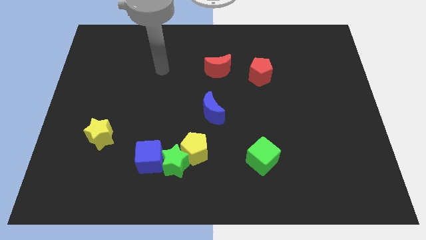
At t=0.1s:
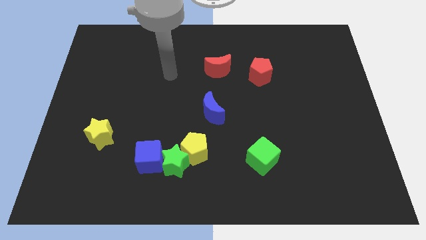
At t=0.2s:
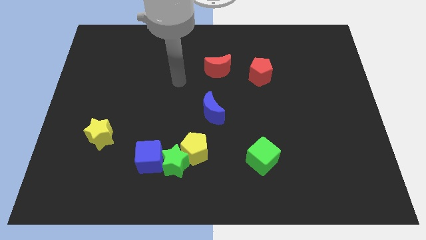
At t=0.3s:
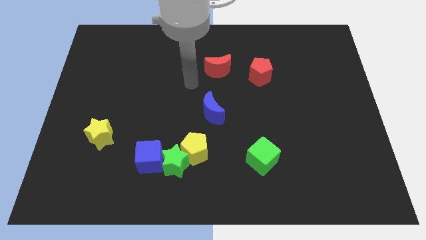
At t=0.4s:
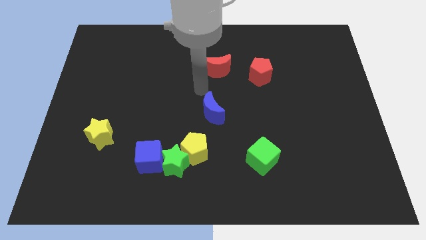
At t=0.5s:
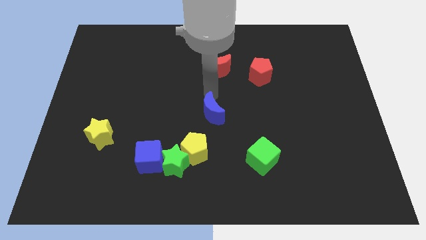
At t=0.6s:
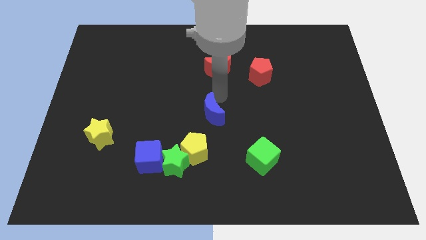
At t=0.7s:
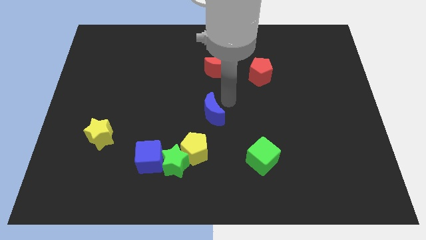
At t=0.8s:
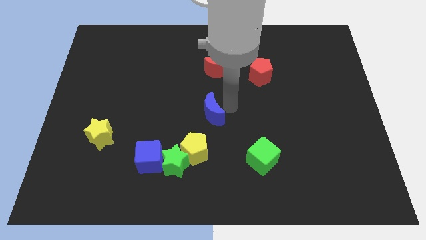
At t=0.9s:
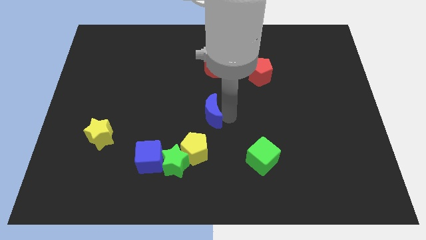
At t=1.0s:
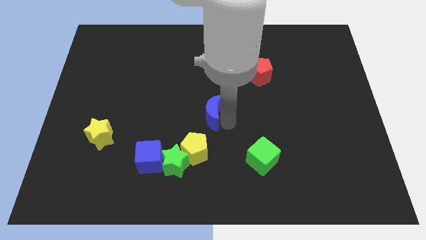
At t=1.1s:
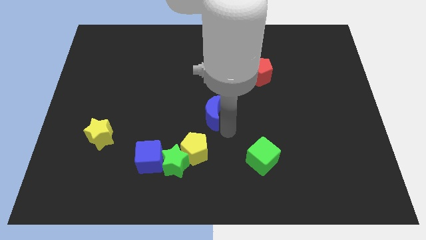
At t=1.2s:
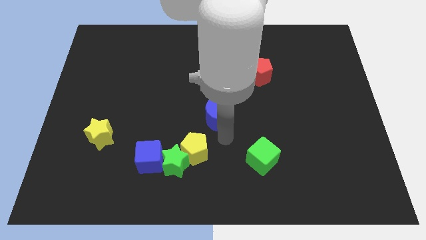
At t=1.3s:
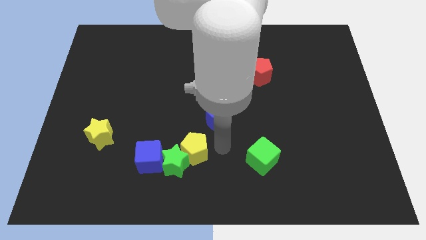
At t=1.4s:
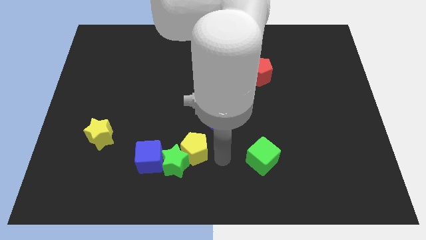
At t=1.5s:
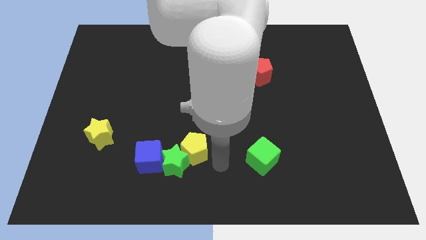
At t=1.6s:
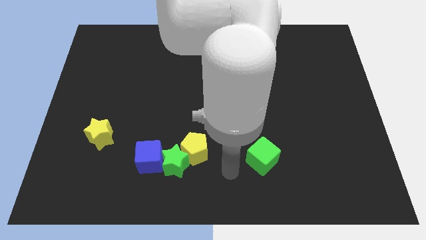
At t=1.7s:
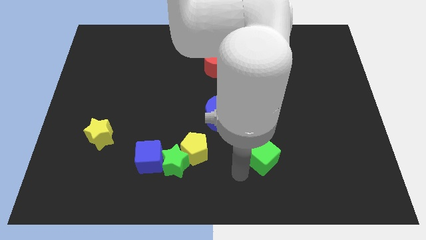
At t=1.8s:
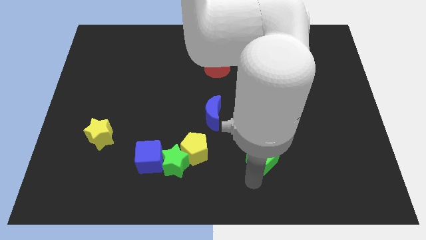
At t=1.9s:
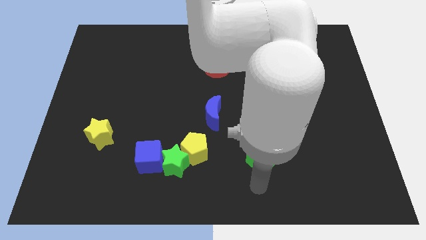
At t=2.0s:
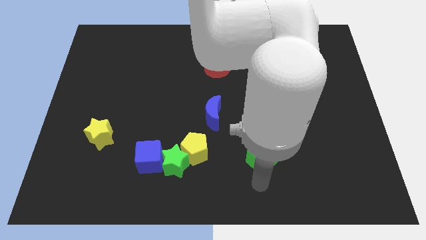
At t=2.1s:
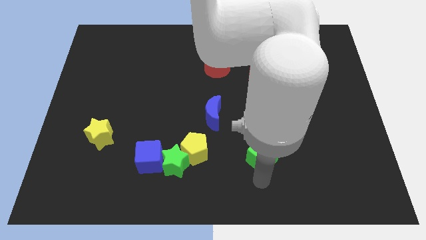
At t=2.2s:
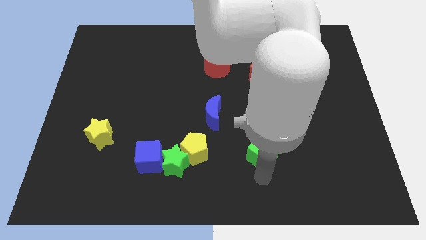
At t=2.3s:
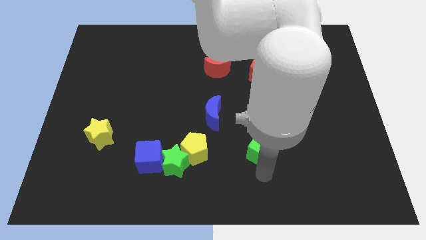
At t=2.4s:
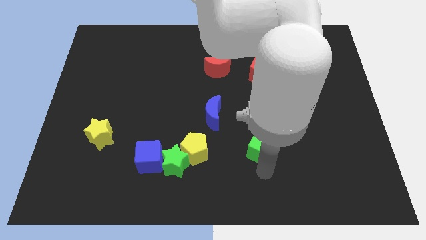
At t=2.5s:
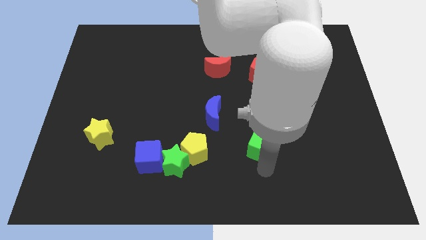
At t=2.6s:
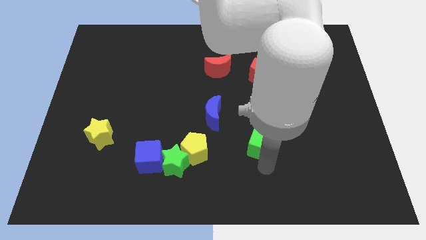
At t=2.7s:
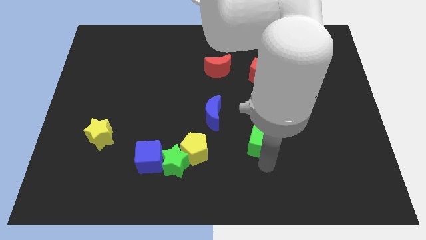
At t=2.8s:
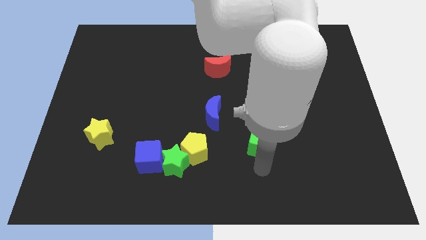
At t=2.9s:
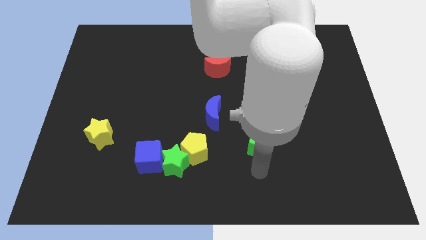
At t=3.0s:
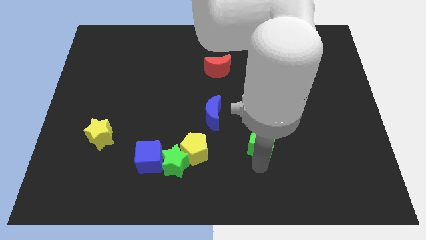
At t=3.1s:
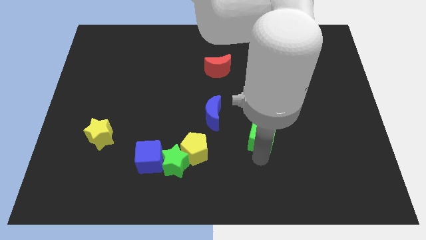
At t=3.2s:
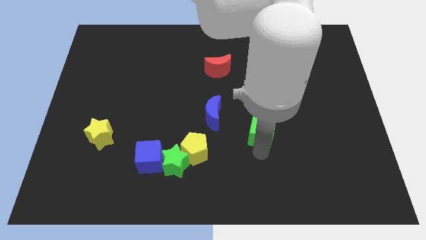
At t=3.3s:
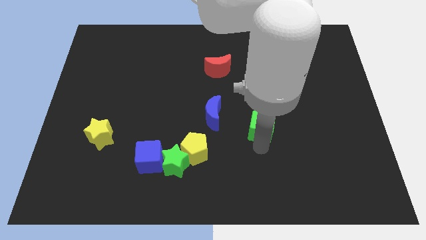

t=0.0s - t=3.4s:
push the green cube up somewhat

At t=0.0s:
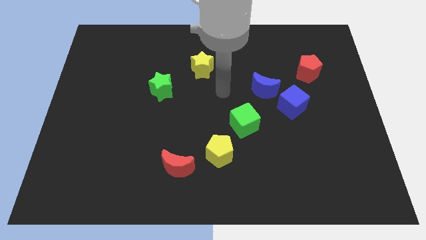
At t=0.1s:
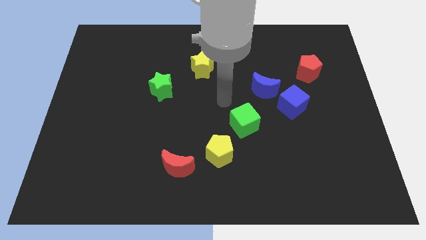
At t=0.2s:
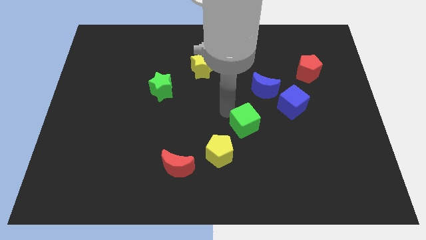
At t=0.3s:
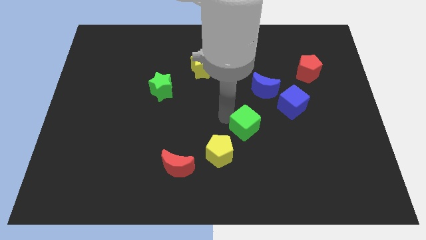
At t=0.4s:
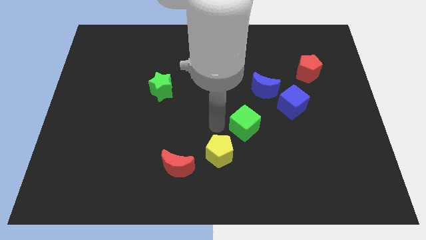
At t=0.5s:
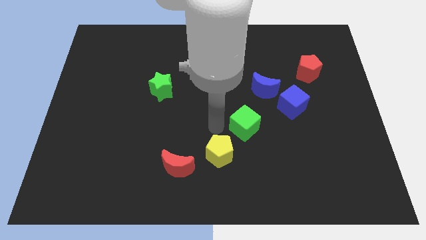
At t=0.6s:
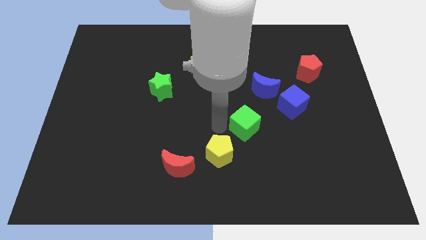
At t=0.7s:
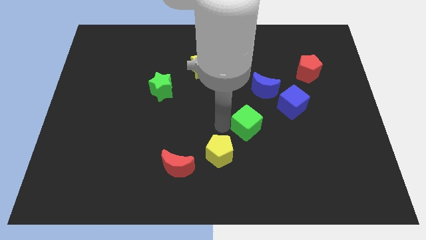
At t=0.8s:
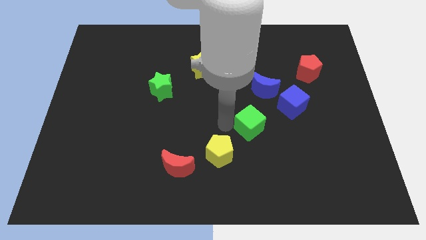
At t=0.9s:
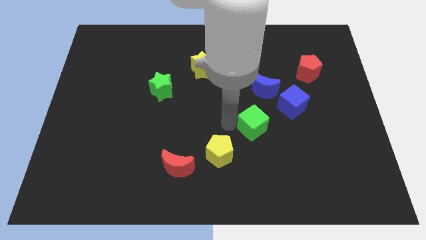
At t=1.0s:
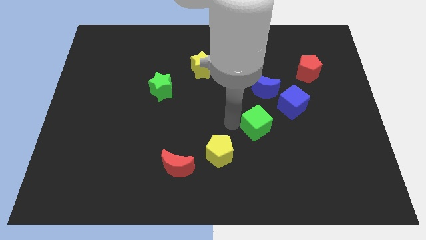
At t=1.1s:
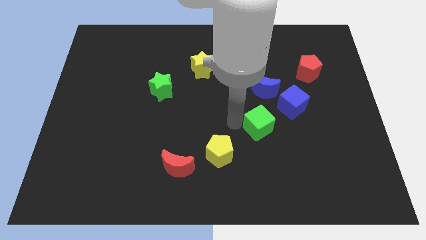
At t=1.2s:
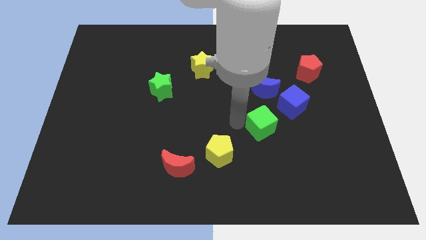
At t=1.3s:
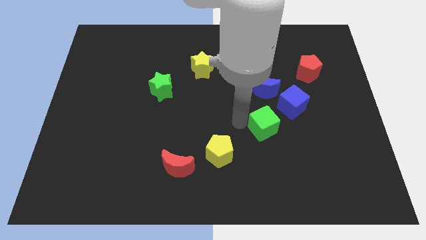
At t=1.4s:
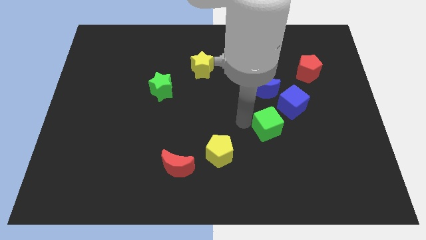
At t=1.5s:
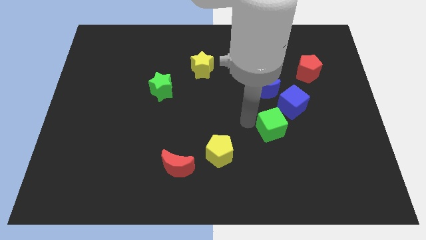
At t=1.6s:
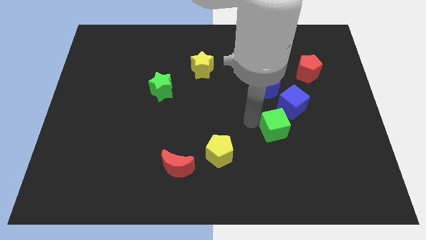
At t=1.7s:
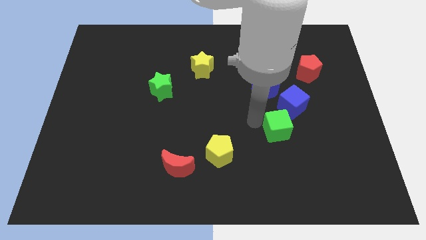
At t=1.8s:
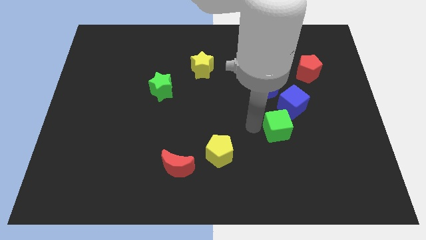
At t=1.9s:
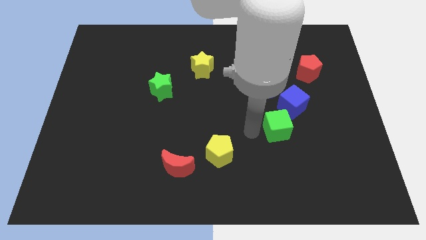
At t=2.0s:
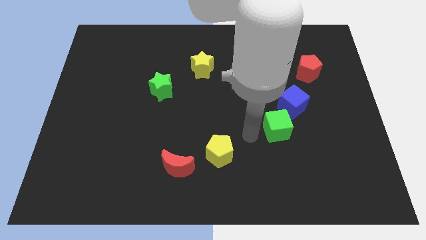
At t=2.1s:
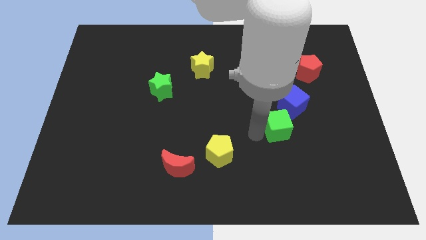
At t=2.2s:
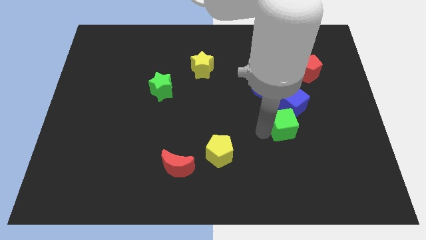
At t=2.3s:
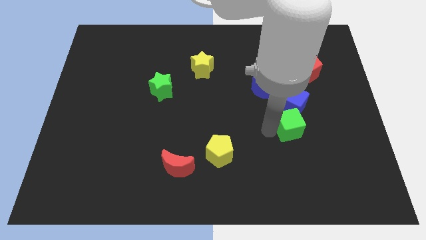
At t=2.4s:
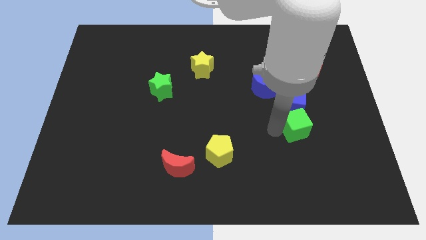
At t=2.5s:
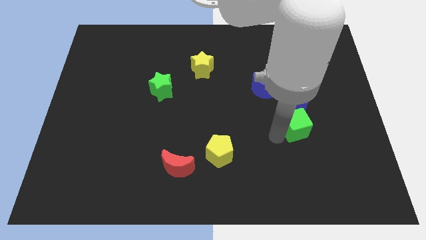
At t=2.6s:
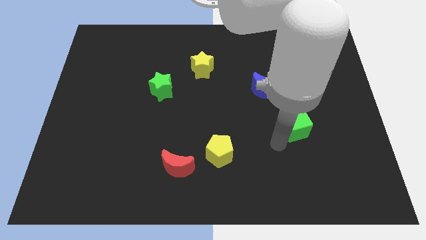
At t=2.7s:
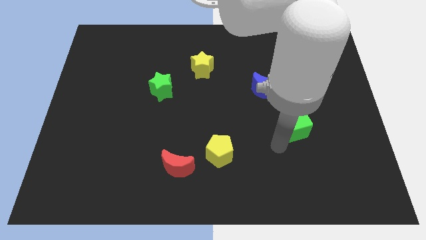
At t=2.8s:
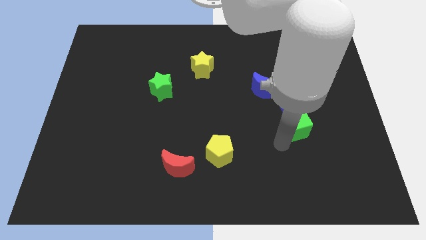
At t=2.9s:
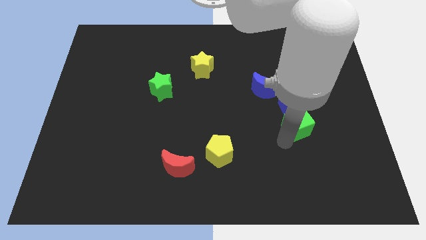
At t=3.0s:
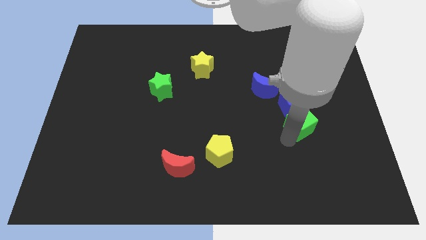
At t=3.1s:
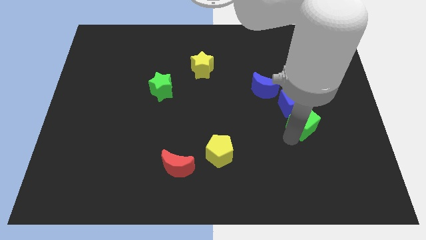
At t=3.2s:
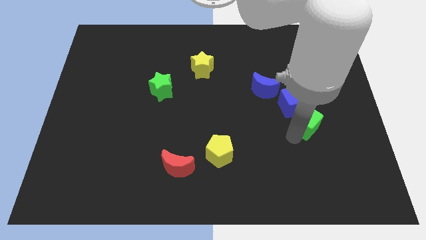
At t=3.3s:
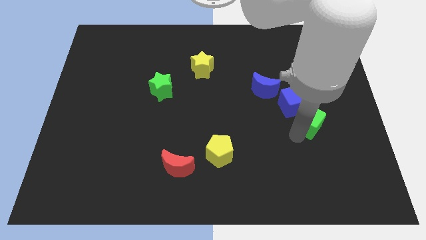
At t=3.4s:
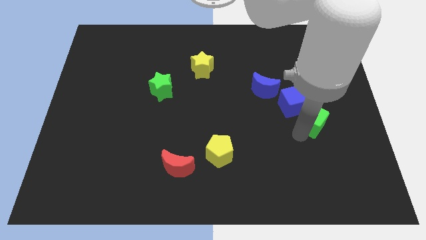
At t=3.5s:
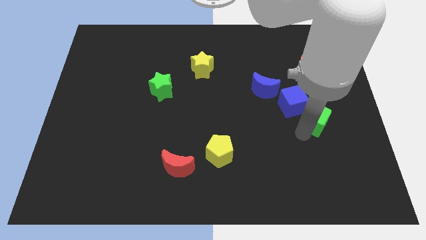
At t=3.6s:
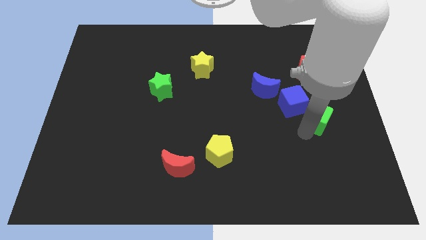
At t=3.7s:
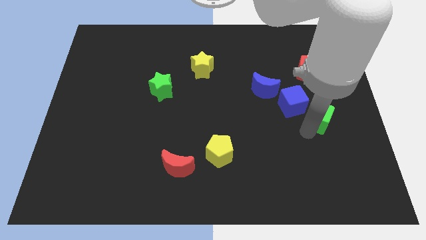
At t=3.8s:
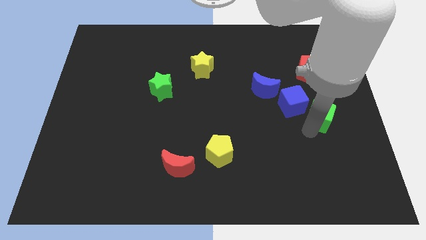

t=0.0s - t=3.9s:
move the green cube up and then right slightly

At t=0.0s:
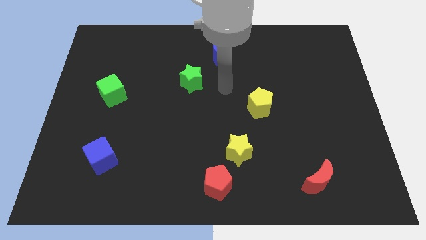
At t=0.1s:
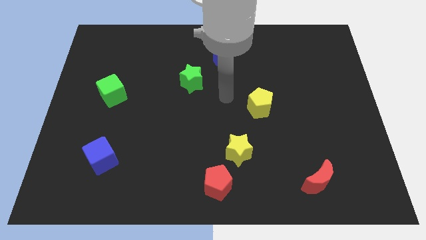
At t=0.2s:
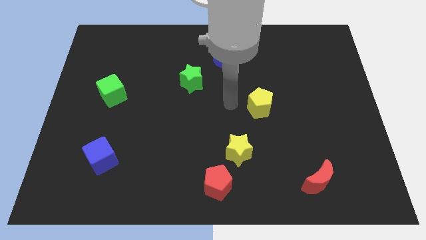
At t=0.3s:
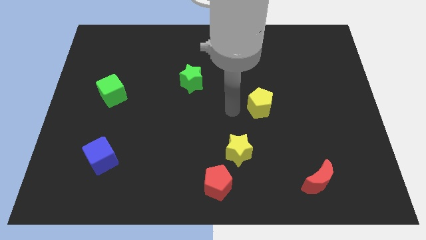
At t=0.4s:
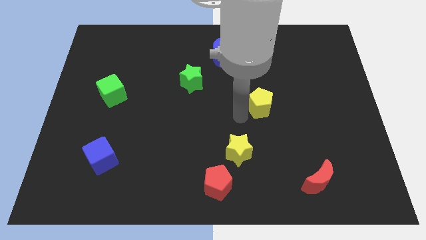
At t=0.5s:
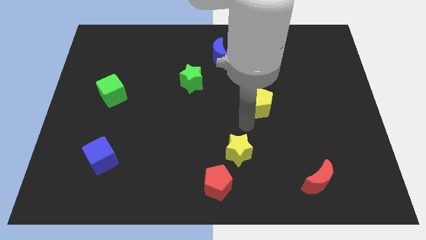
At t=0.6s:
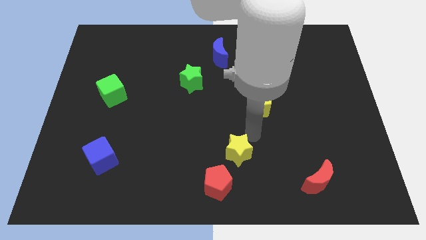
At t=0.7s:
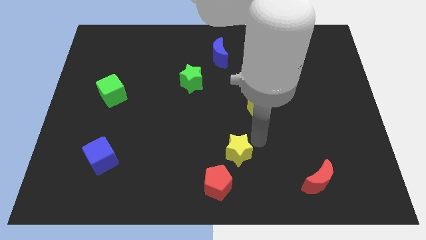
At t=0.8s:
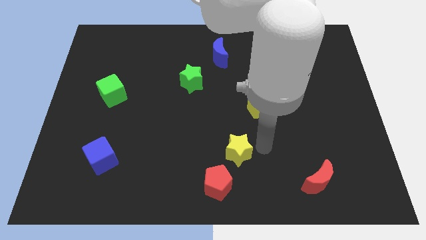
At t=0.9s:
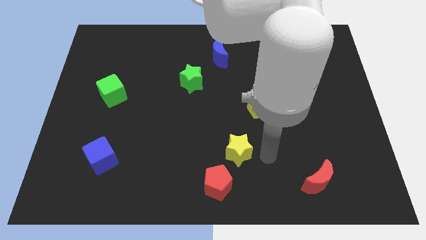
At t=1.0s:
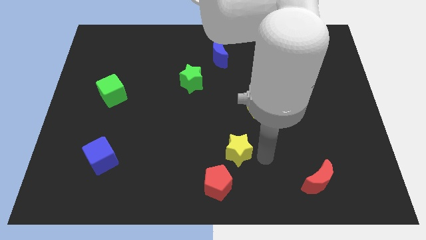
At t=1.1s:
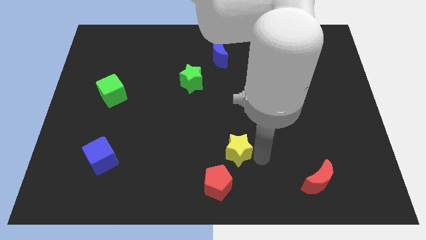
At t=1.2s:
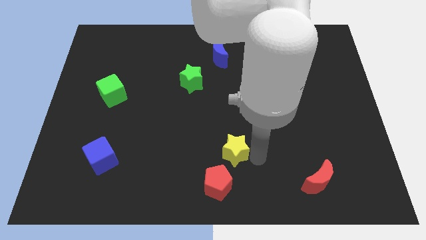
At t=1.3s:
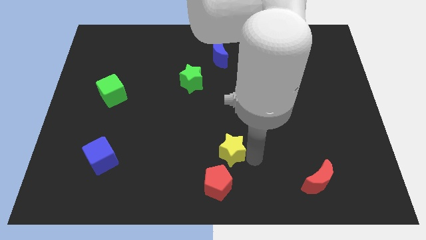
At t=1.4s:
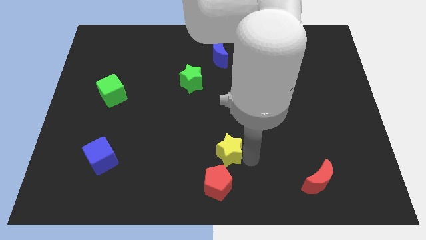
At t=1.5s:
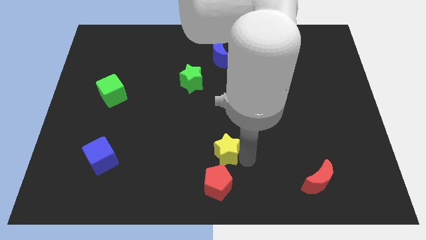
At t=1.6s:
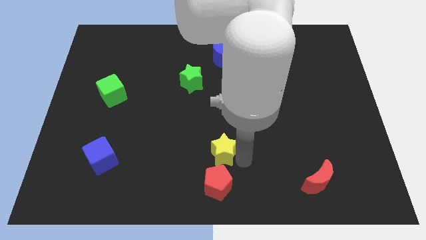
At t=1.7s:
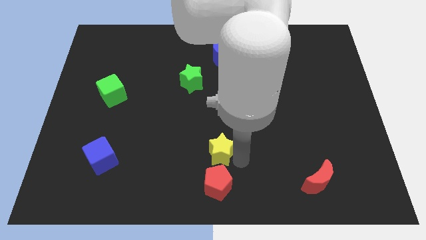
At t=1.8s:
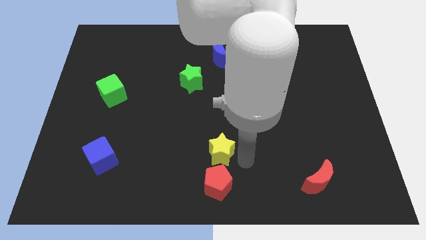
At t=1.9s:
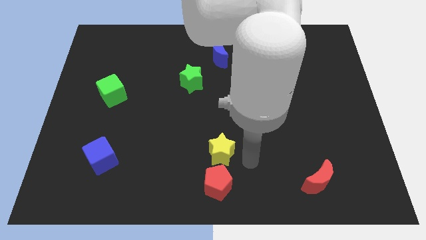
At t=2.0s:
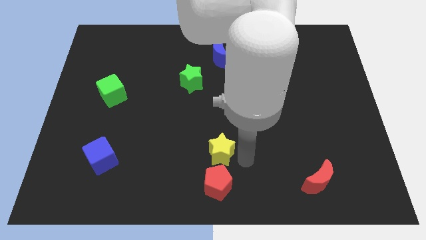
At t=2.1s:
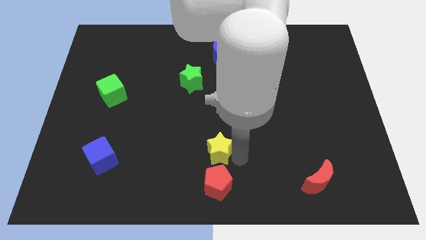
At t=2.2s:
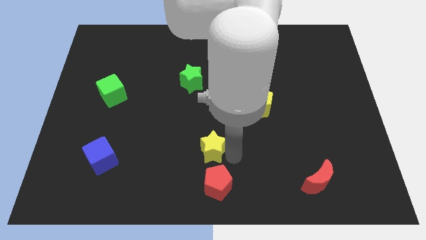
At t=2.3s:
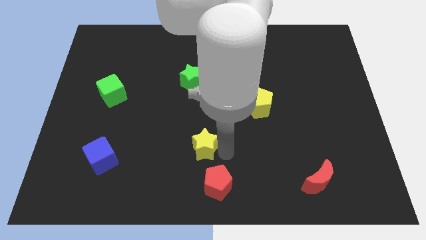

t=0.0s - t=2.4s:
slightly slide the yellow star to the left
